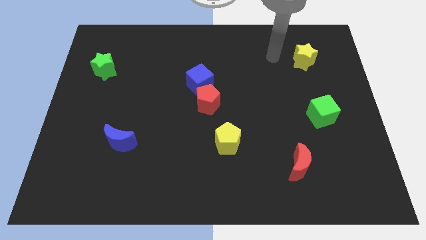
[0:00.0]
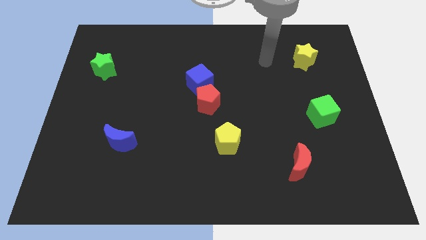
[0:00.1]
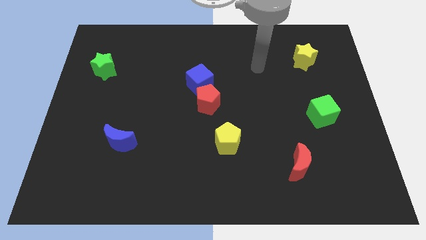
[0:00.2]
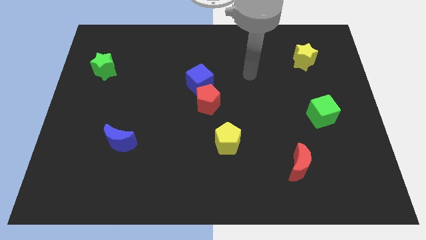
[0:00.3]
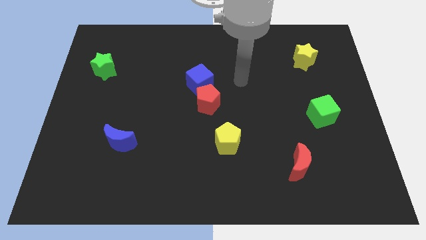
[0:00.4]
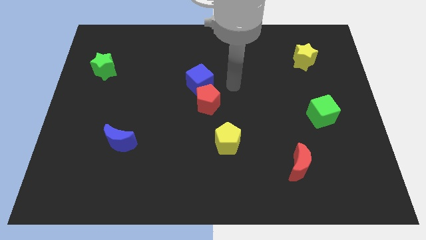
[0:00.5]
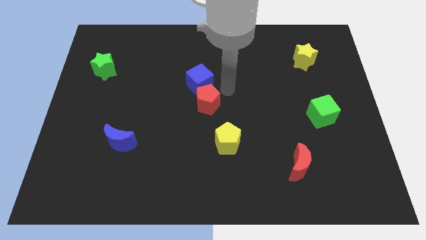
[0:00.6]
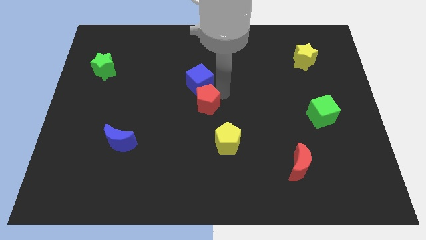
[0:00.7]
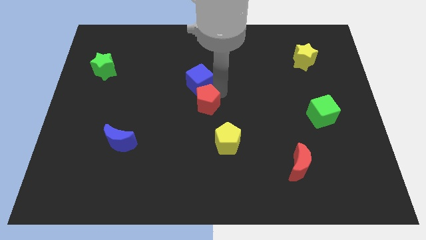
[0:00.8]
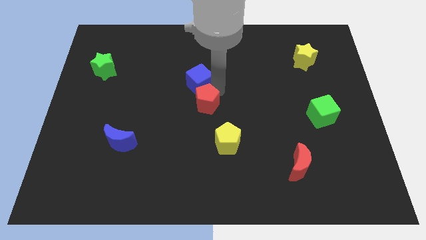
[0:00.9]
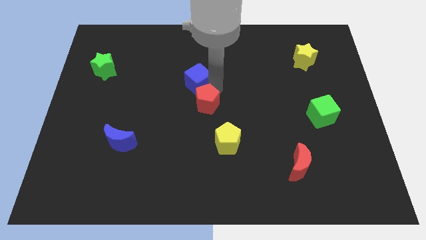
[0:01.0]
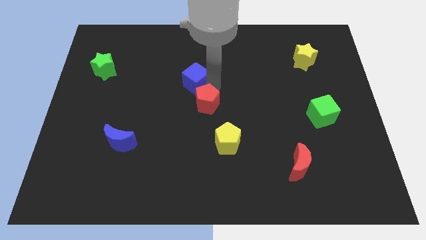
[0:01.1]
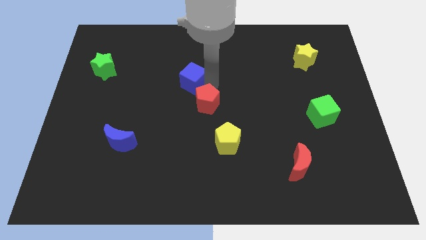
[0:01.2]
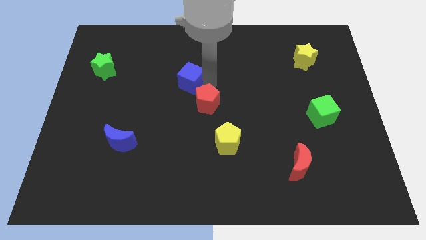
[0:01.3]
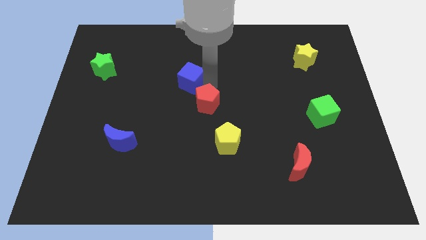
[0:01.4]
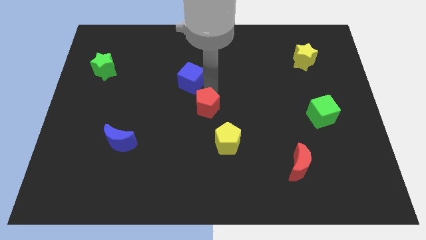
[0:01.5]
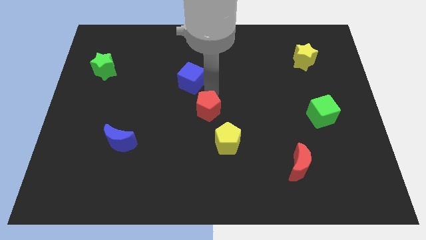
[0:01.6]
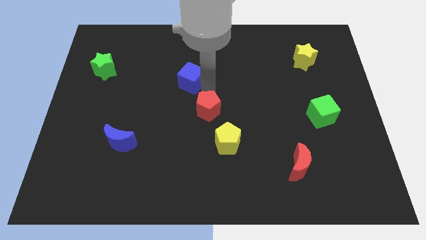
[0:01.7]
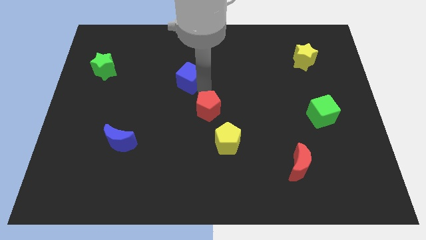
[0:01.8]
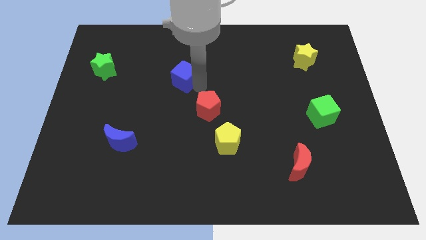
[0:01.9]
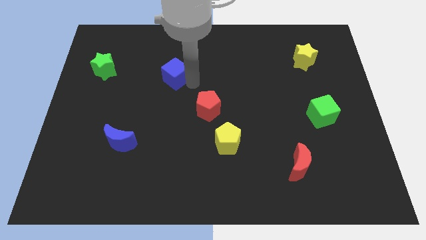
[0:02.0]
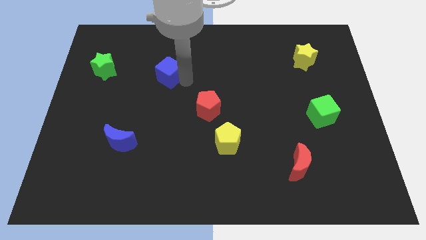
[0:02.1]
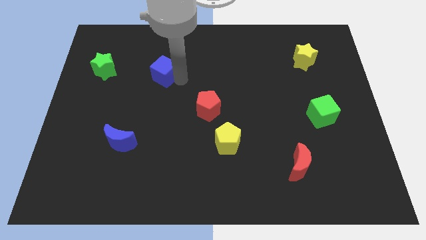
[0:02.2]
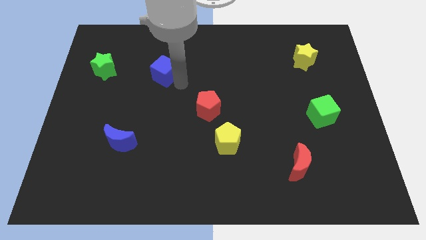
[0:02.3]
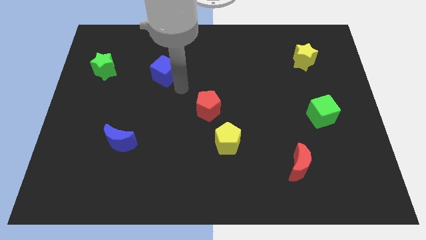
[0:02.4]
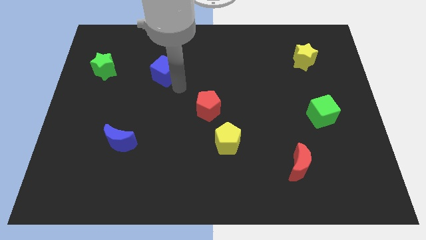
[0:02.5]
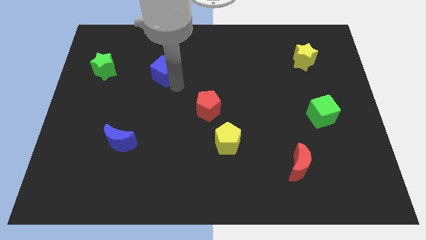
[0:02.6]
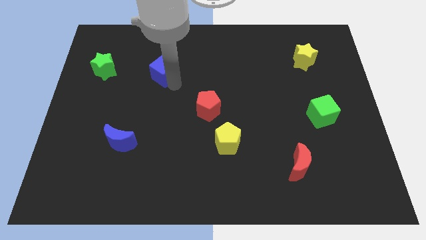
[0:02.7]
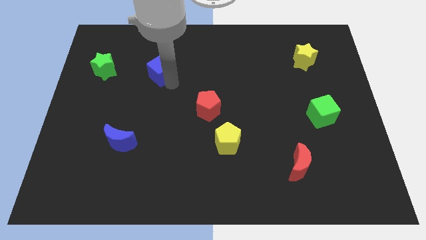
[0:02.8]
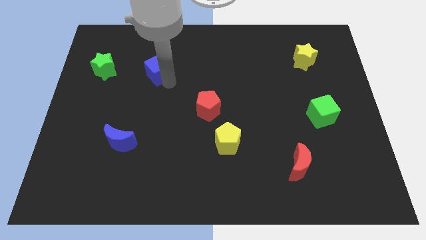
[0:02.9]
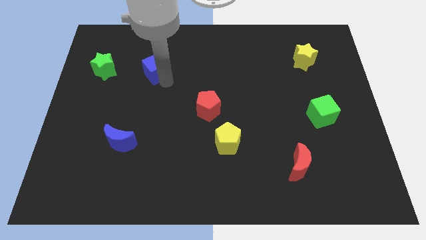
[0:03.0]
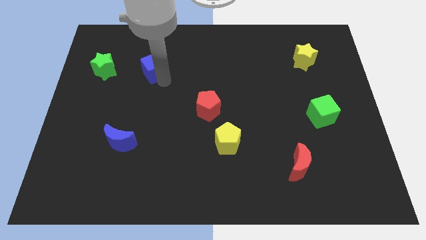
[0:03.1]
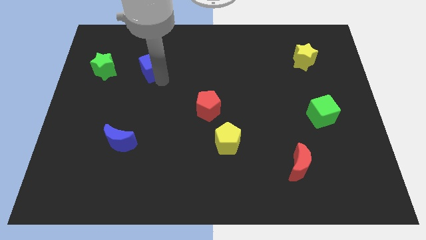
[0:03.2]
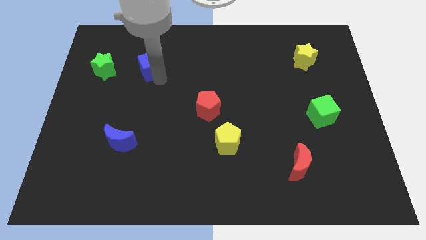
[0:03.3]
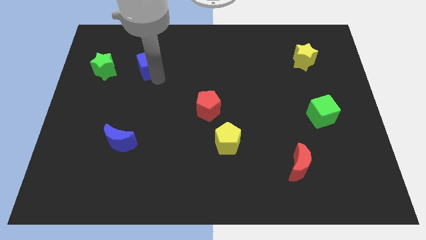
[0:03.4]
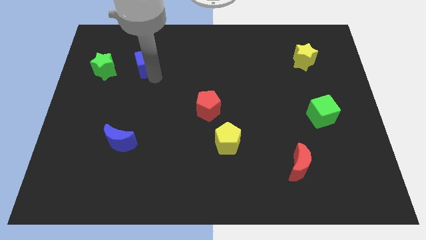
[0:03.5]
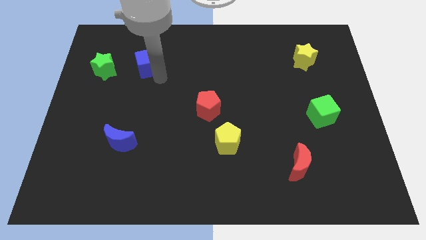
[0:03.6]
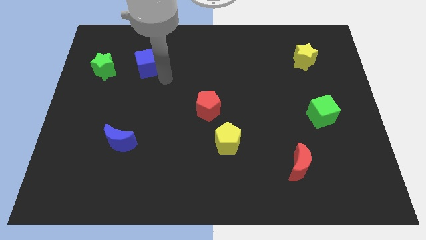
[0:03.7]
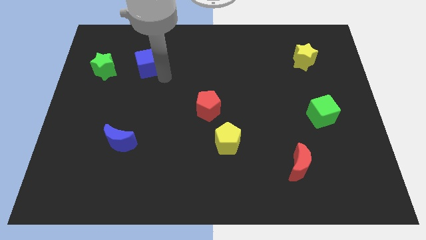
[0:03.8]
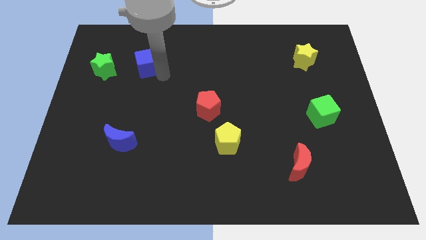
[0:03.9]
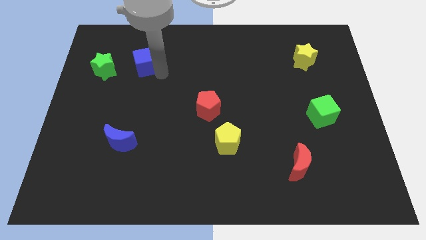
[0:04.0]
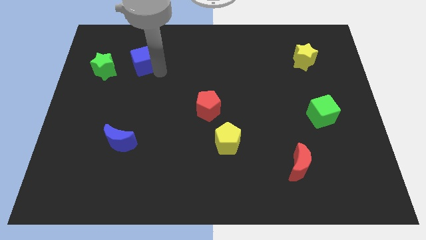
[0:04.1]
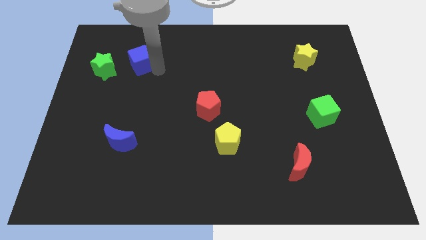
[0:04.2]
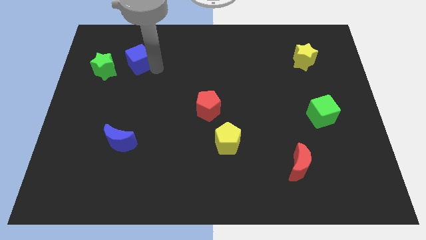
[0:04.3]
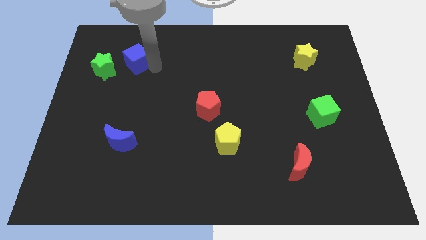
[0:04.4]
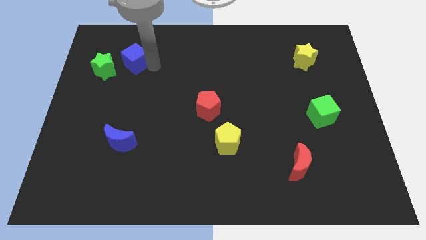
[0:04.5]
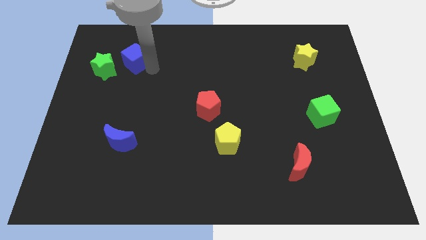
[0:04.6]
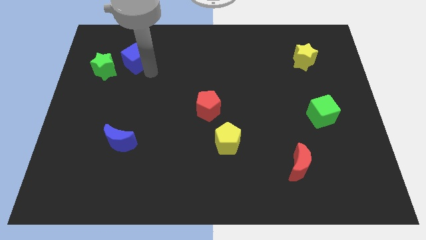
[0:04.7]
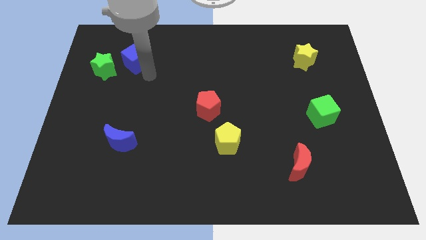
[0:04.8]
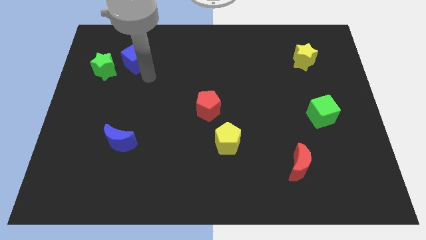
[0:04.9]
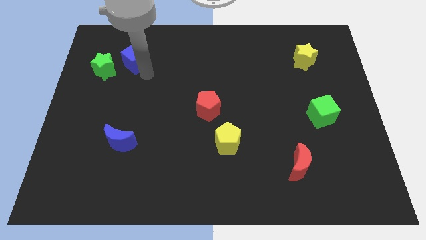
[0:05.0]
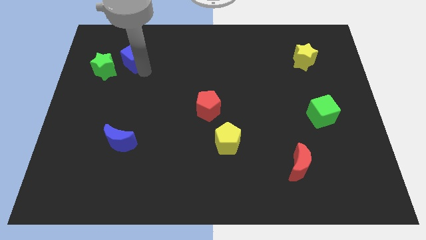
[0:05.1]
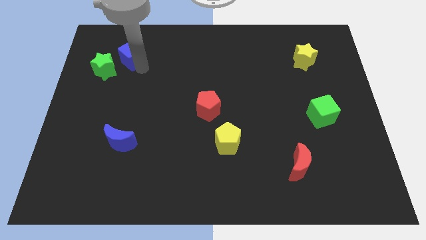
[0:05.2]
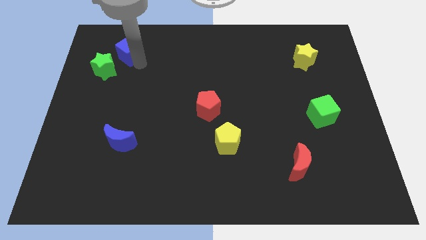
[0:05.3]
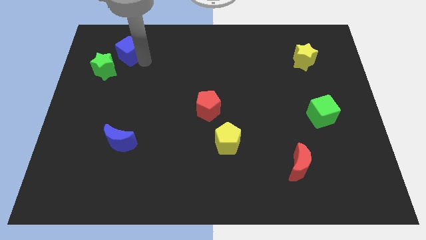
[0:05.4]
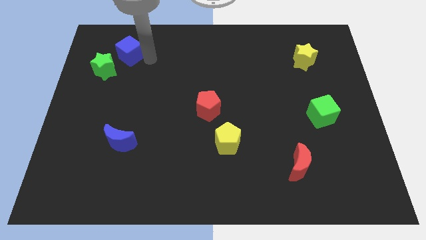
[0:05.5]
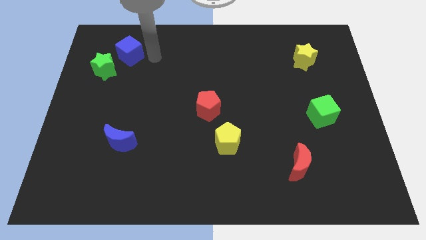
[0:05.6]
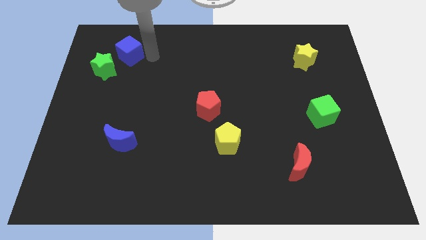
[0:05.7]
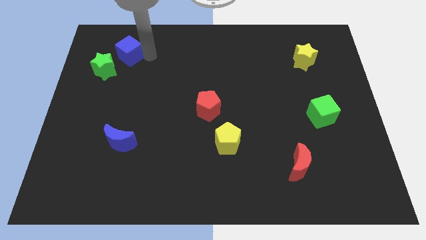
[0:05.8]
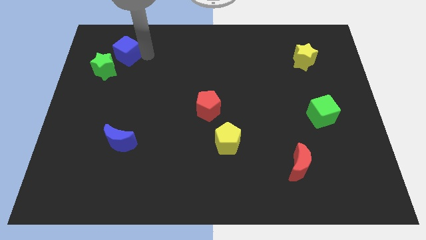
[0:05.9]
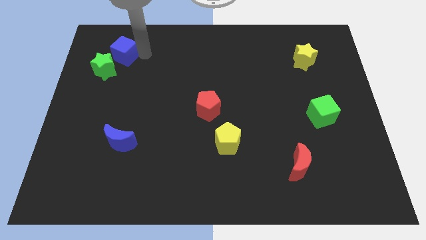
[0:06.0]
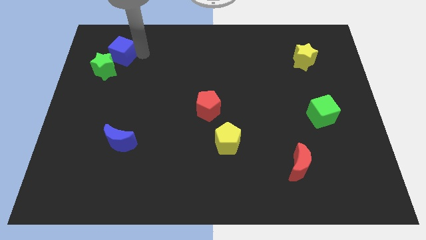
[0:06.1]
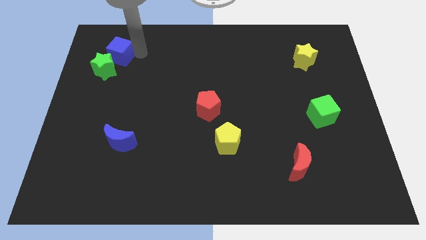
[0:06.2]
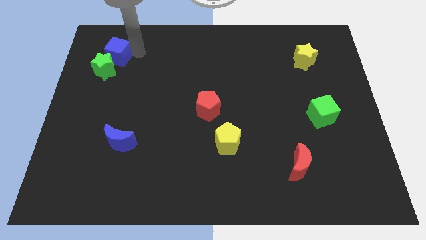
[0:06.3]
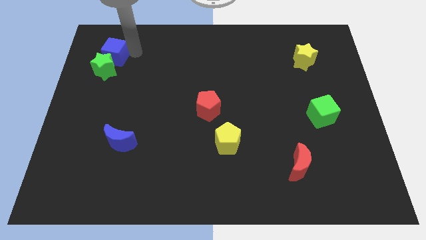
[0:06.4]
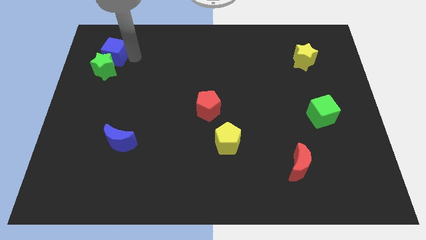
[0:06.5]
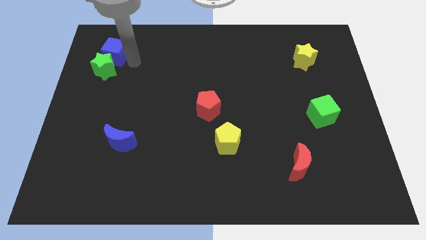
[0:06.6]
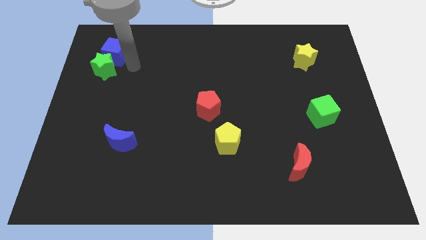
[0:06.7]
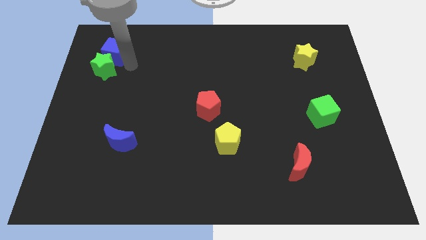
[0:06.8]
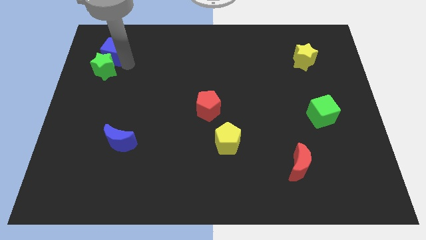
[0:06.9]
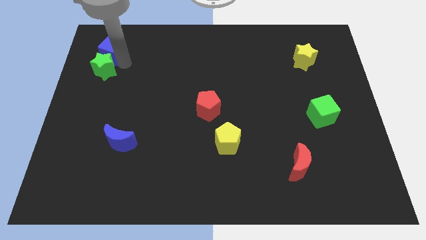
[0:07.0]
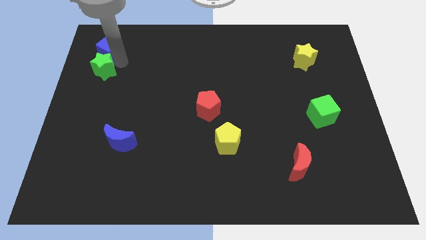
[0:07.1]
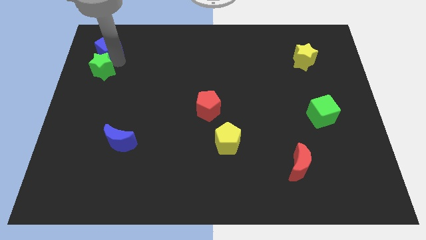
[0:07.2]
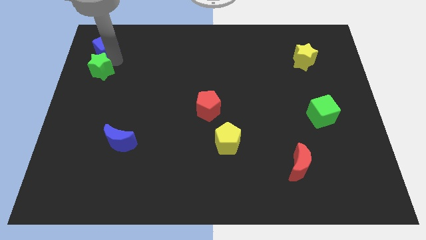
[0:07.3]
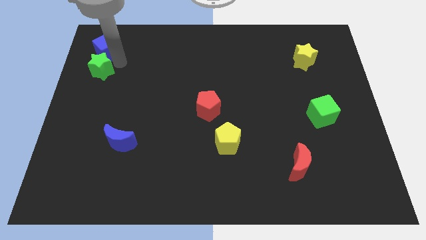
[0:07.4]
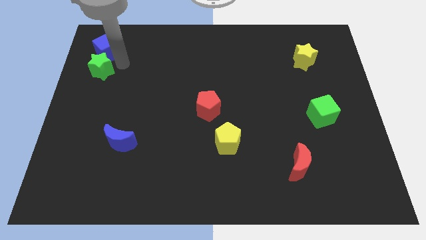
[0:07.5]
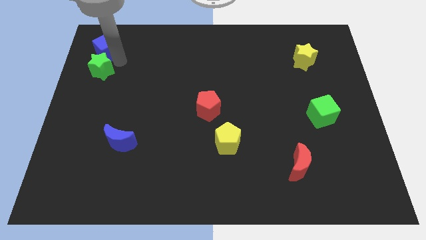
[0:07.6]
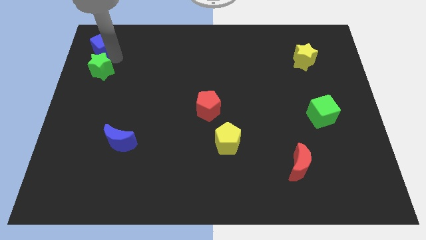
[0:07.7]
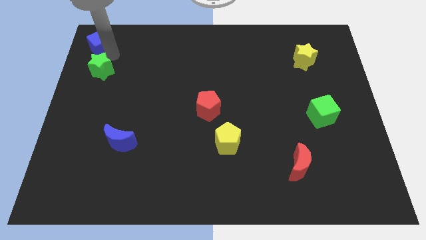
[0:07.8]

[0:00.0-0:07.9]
slide the blue cube to the upper left corner
